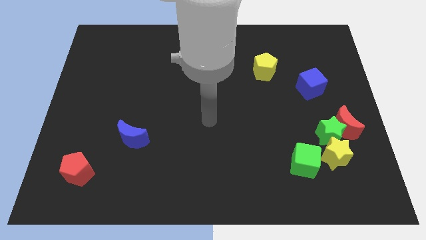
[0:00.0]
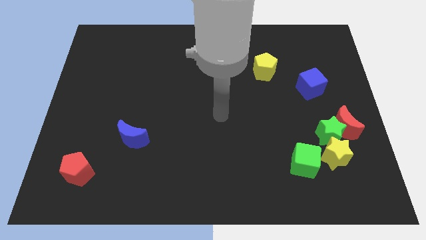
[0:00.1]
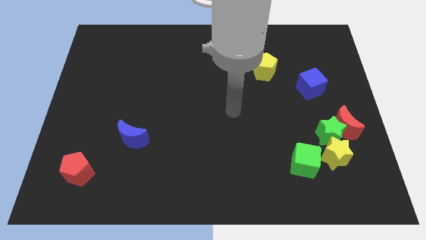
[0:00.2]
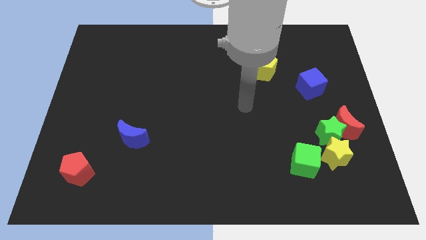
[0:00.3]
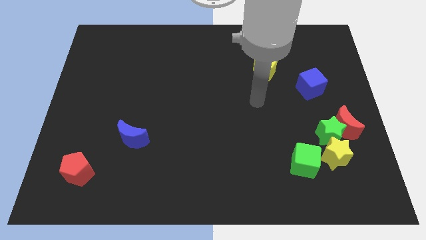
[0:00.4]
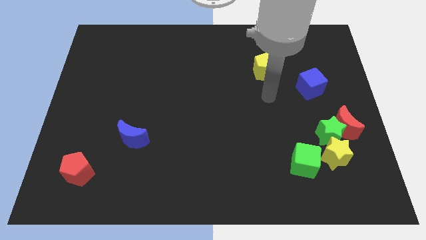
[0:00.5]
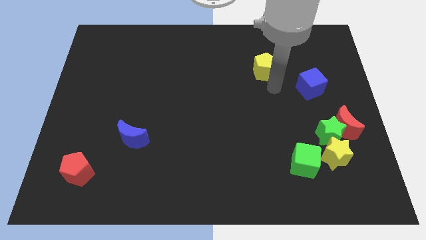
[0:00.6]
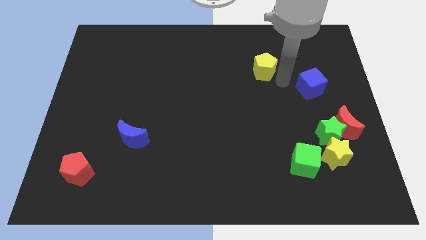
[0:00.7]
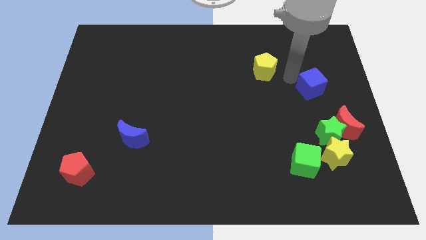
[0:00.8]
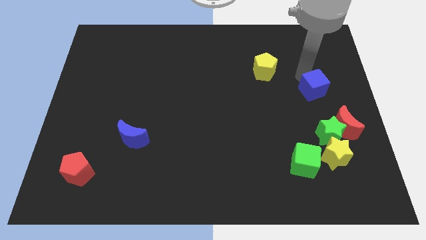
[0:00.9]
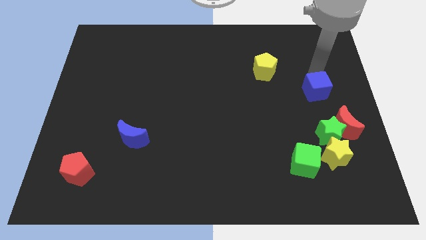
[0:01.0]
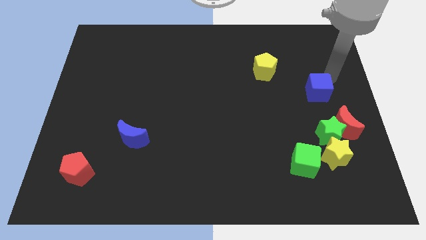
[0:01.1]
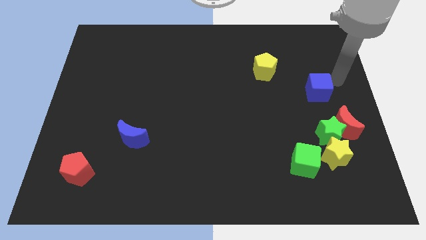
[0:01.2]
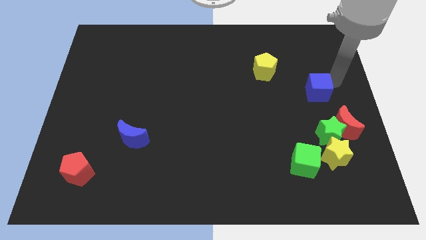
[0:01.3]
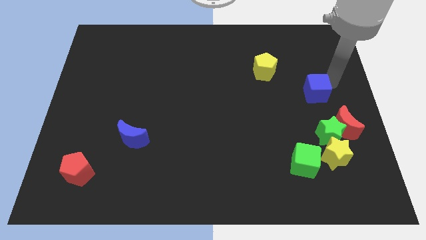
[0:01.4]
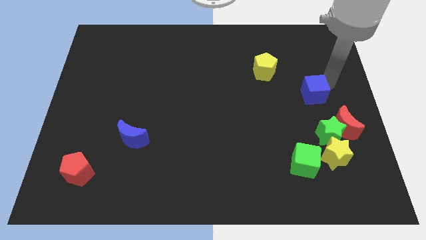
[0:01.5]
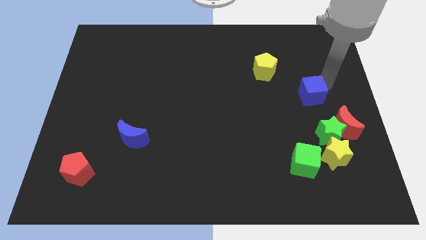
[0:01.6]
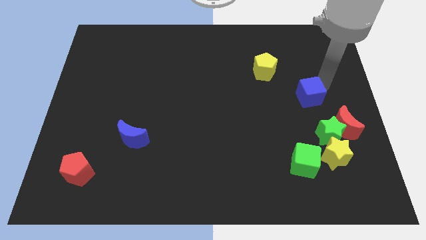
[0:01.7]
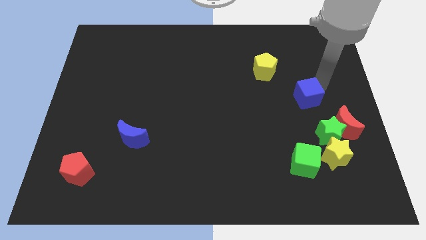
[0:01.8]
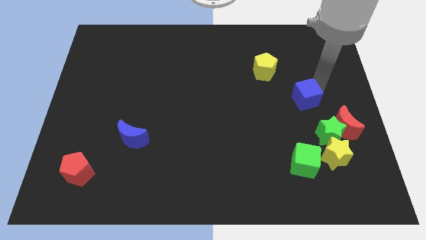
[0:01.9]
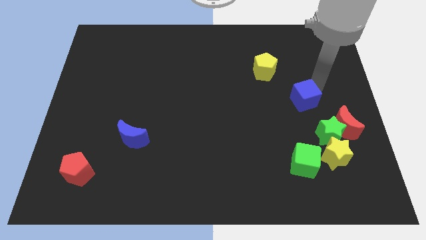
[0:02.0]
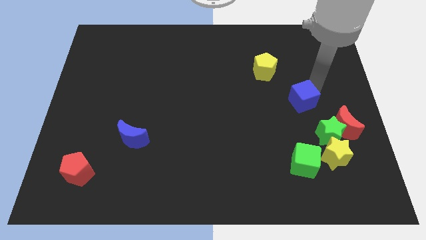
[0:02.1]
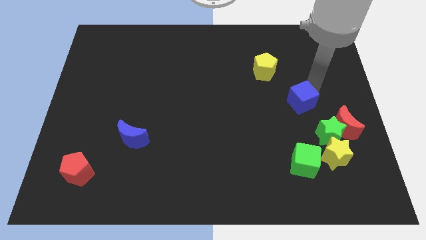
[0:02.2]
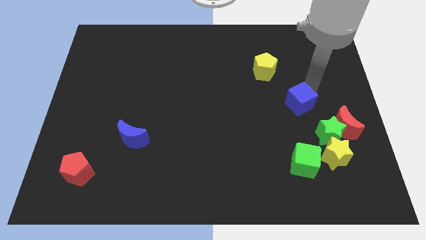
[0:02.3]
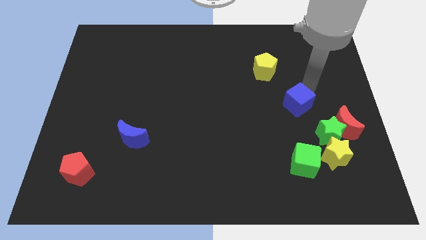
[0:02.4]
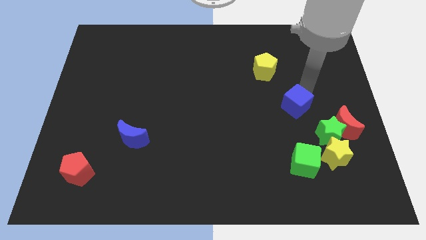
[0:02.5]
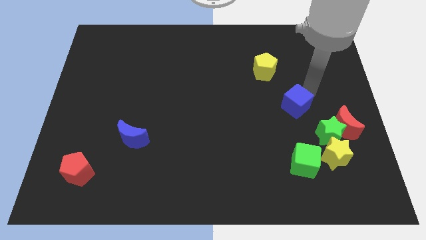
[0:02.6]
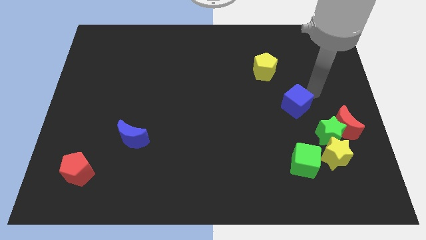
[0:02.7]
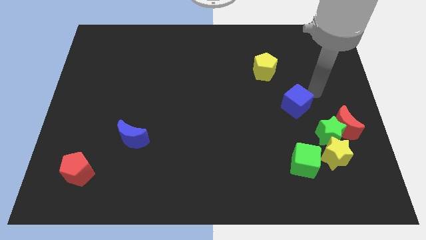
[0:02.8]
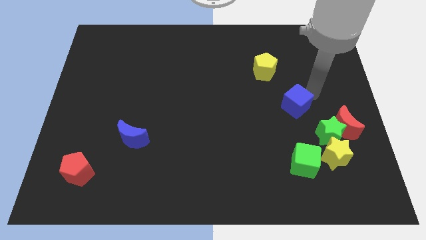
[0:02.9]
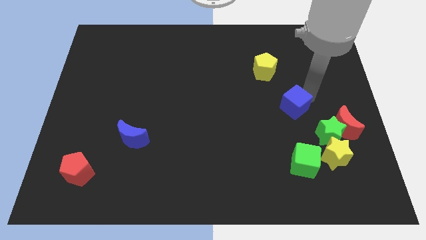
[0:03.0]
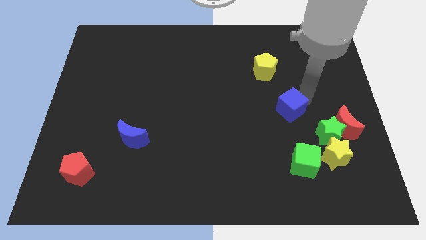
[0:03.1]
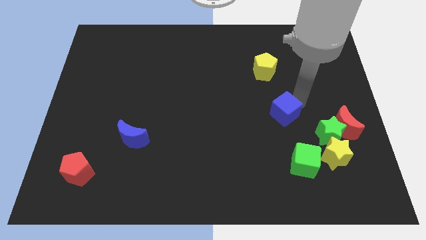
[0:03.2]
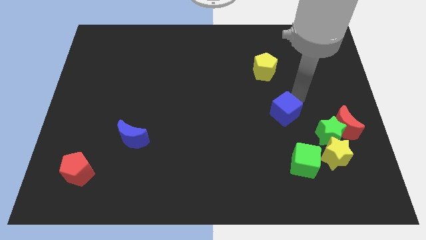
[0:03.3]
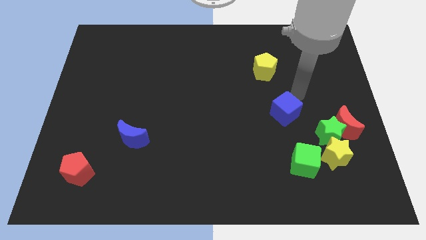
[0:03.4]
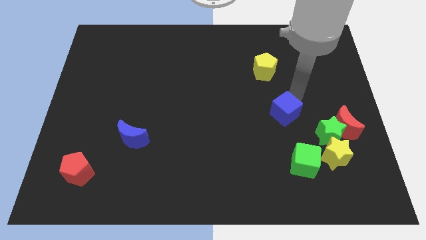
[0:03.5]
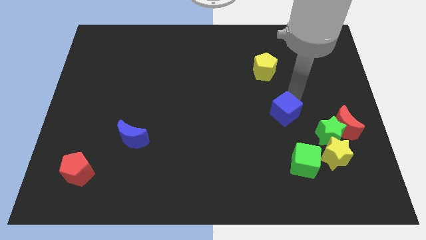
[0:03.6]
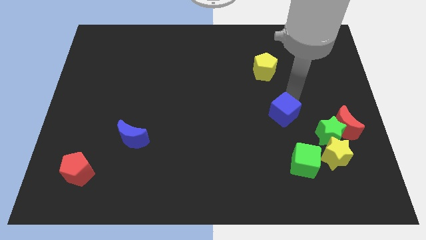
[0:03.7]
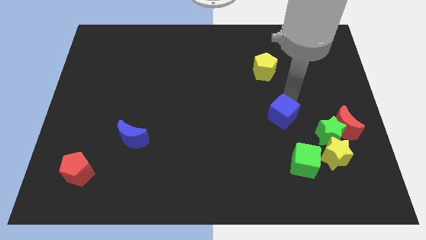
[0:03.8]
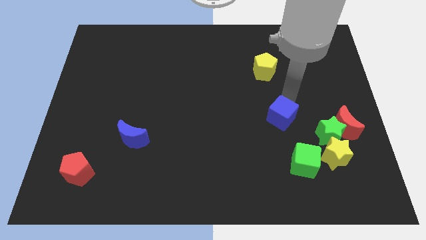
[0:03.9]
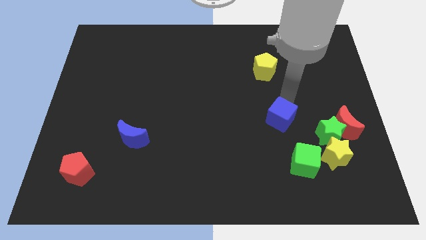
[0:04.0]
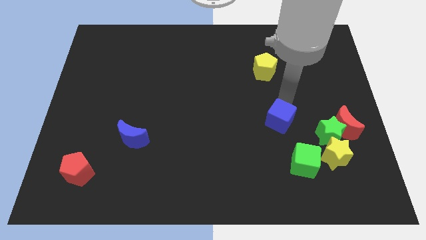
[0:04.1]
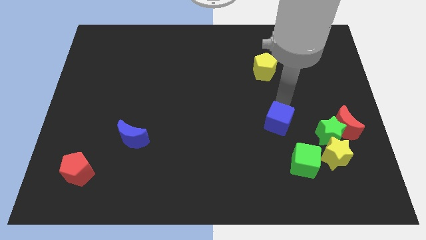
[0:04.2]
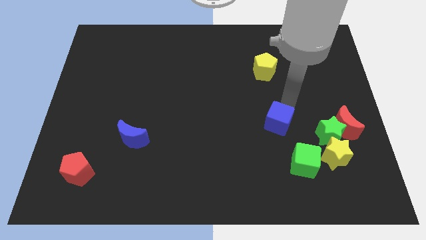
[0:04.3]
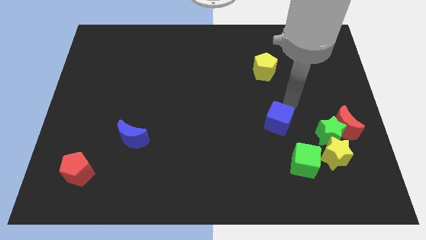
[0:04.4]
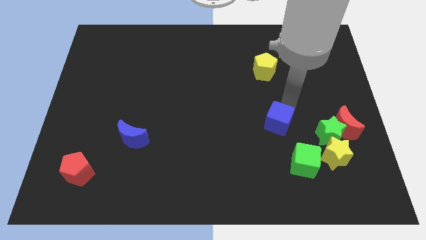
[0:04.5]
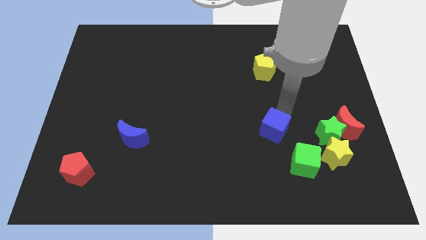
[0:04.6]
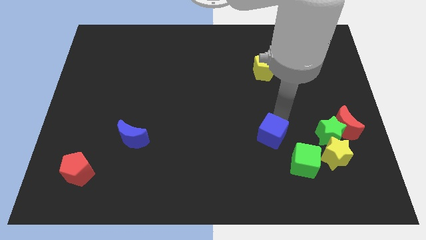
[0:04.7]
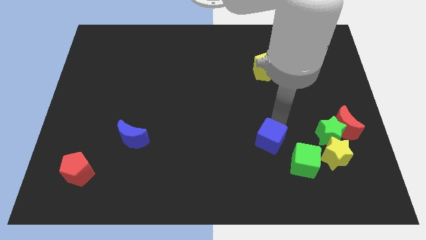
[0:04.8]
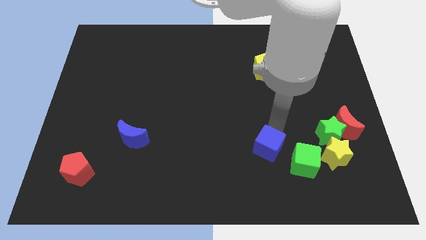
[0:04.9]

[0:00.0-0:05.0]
push the blue cube left of the green cube

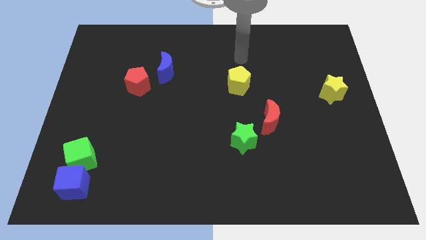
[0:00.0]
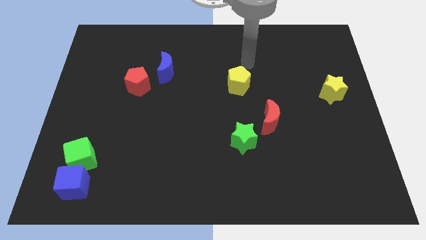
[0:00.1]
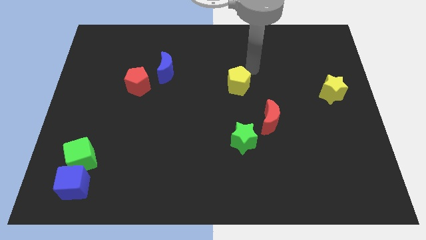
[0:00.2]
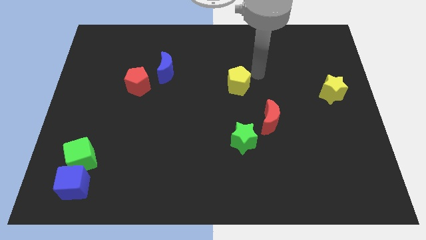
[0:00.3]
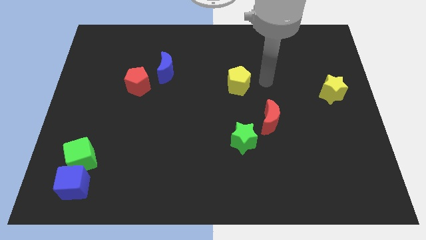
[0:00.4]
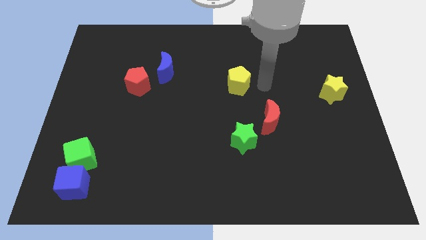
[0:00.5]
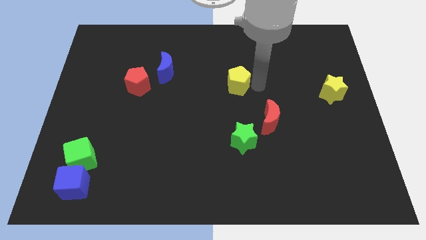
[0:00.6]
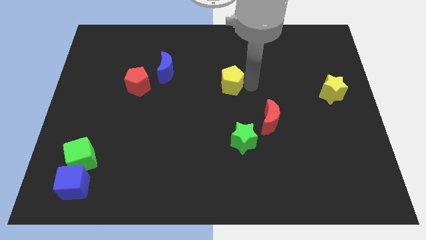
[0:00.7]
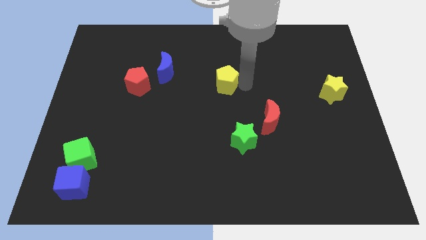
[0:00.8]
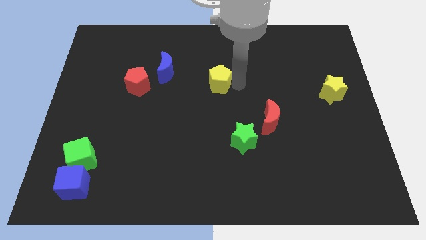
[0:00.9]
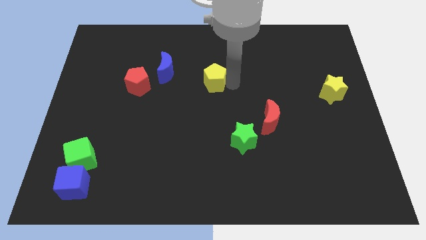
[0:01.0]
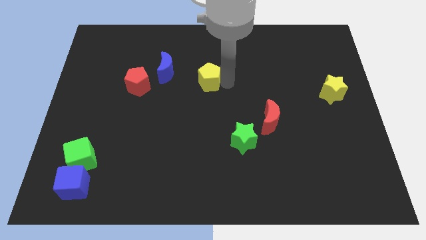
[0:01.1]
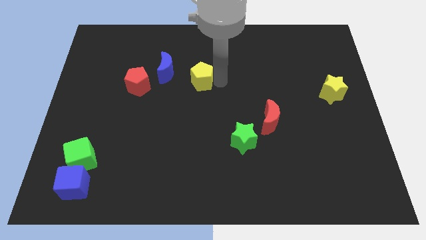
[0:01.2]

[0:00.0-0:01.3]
push the yellow pentagon just right of the red pentagon

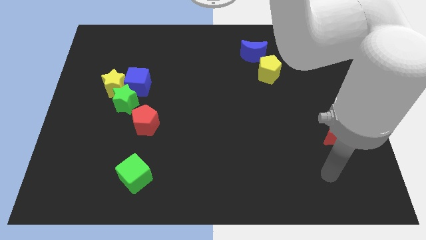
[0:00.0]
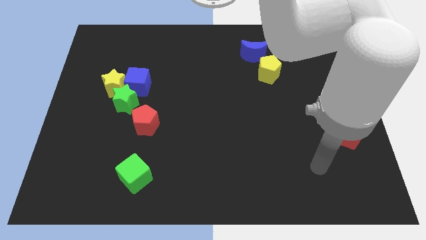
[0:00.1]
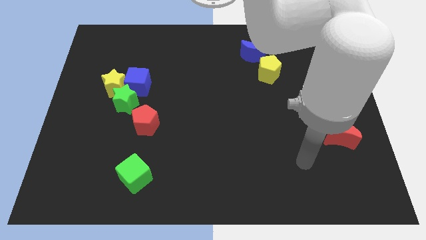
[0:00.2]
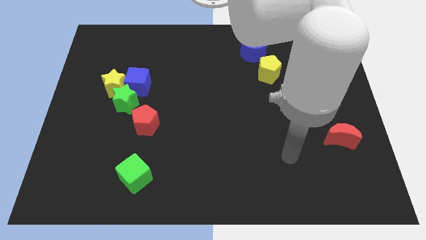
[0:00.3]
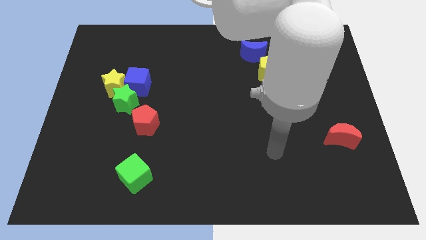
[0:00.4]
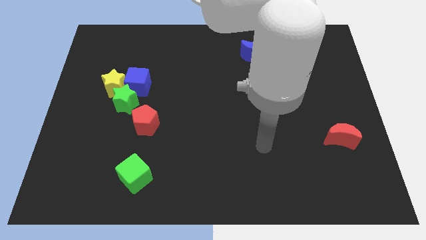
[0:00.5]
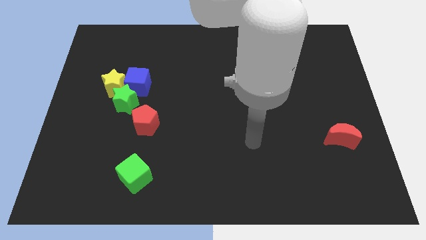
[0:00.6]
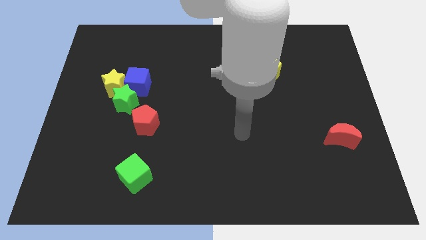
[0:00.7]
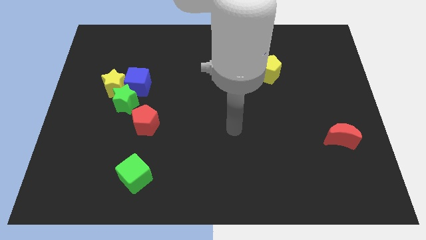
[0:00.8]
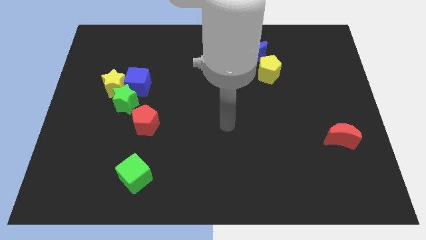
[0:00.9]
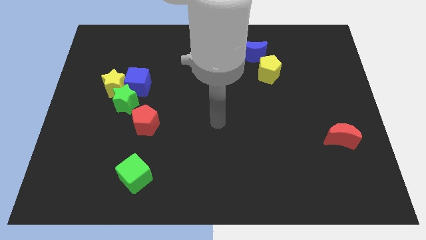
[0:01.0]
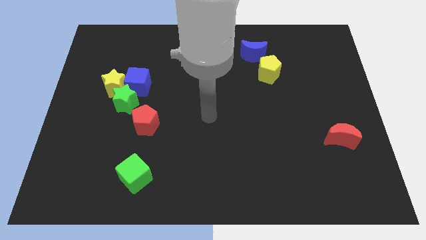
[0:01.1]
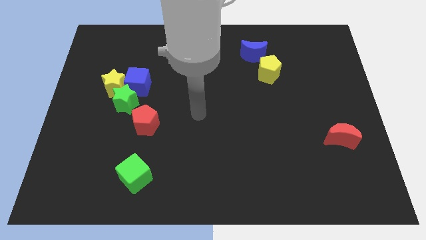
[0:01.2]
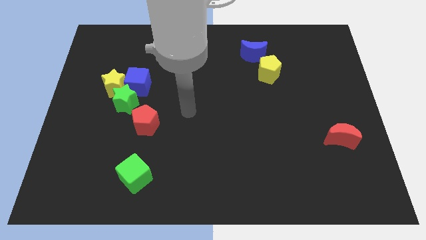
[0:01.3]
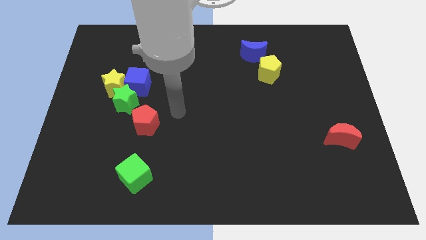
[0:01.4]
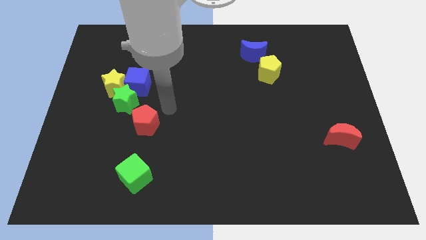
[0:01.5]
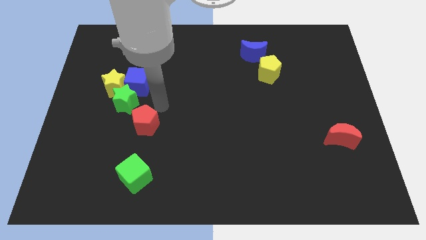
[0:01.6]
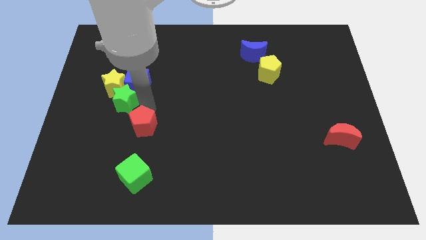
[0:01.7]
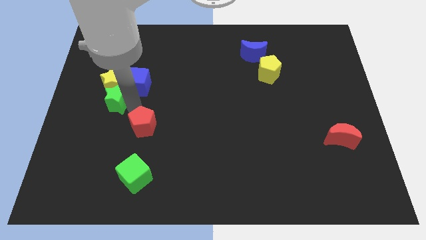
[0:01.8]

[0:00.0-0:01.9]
move the yellow star diagonally up and to the right of the green star
